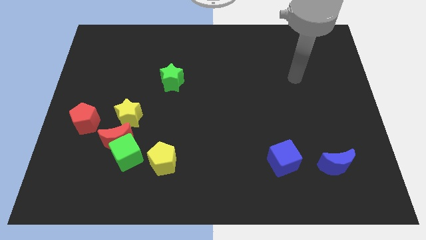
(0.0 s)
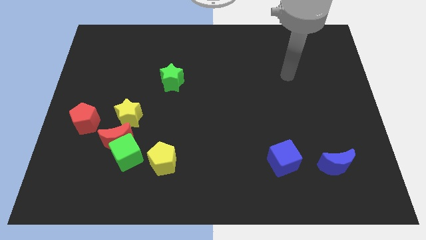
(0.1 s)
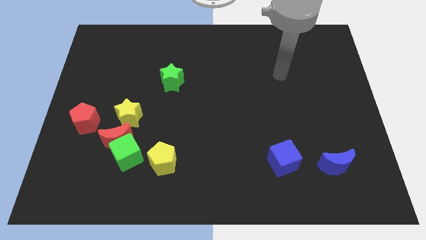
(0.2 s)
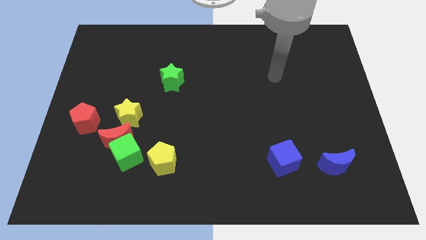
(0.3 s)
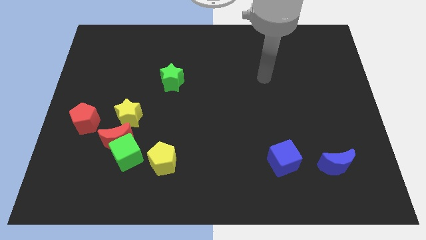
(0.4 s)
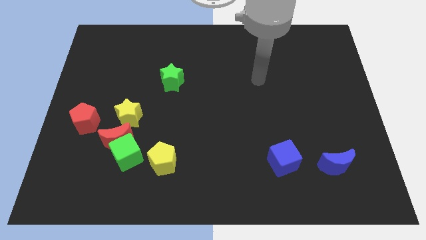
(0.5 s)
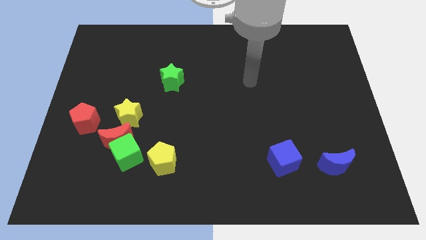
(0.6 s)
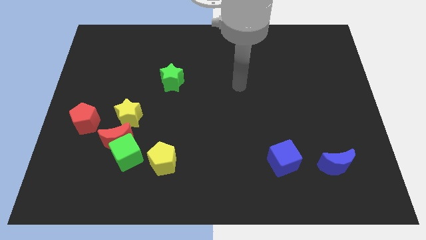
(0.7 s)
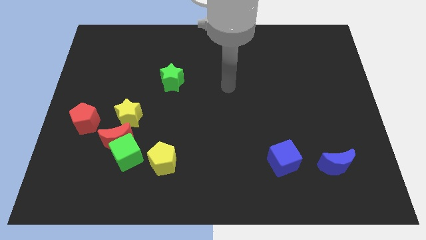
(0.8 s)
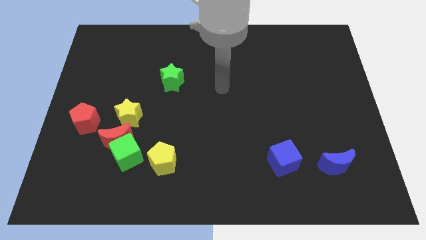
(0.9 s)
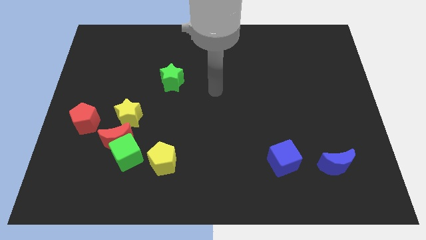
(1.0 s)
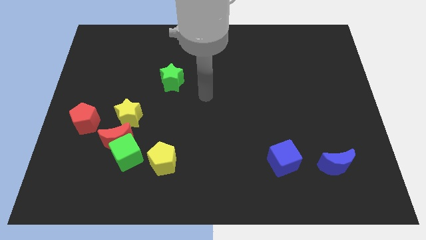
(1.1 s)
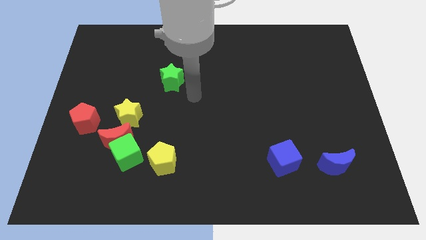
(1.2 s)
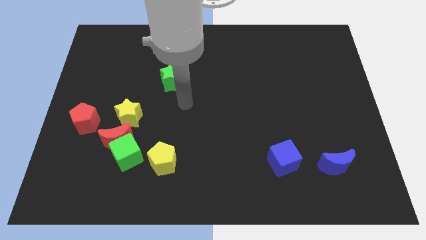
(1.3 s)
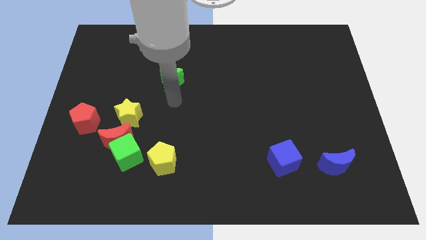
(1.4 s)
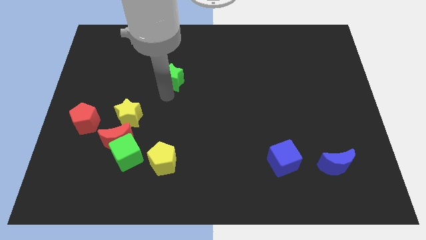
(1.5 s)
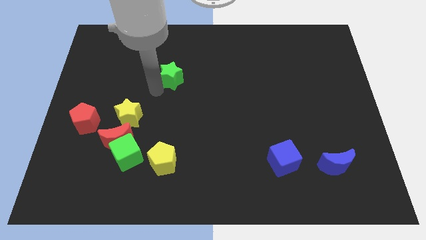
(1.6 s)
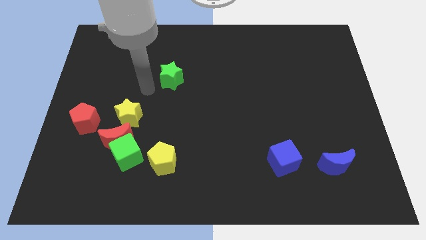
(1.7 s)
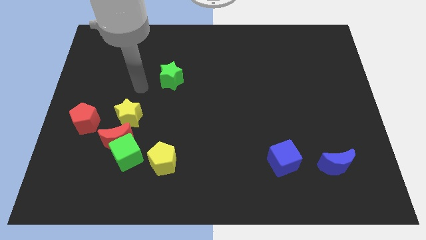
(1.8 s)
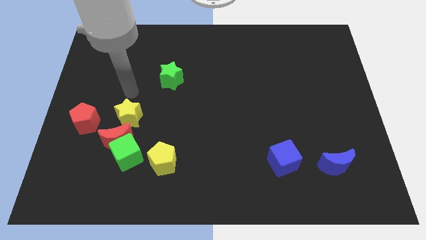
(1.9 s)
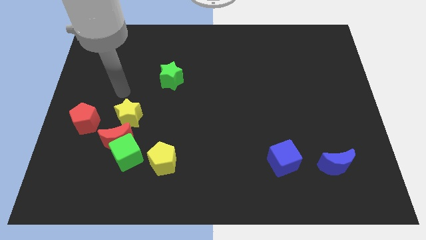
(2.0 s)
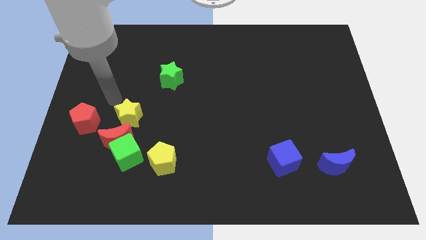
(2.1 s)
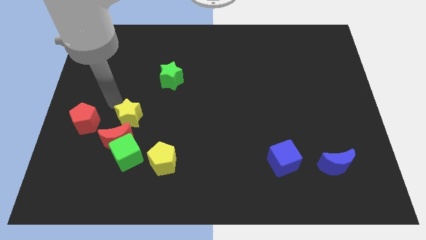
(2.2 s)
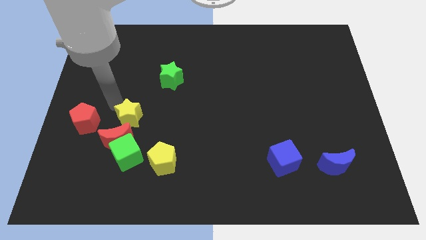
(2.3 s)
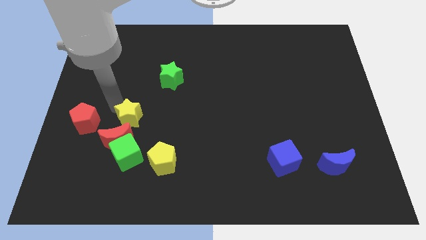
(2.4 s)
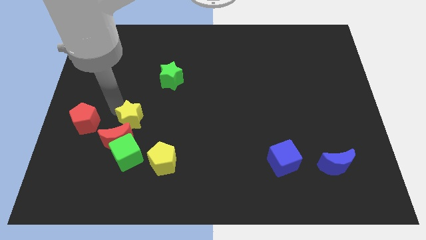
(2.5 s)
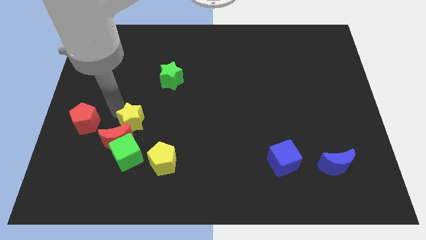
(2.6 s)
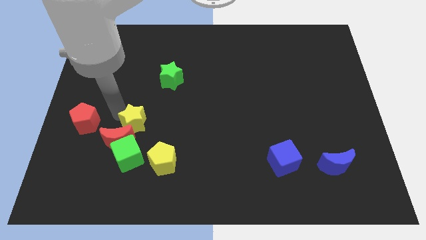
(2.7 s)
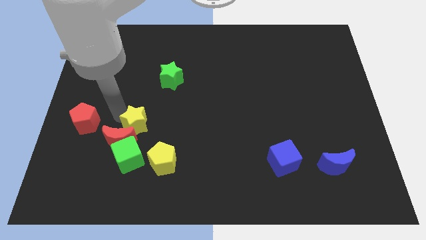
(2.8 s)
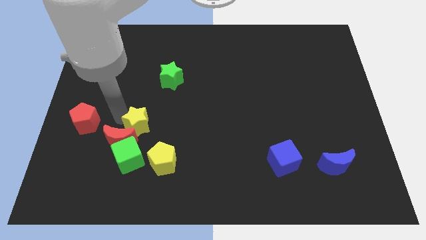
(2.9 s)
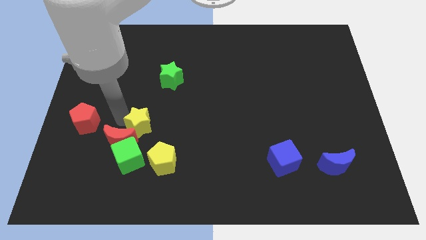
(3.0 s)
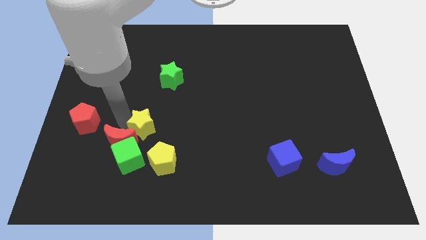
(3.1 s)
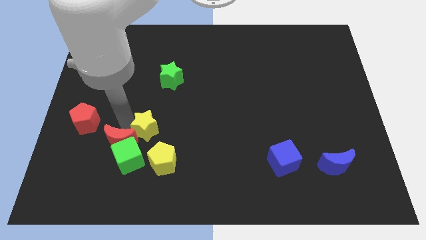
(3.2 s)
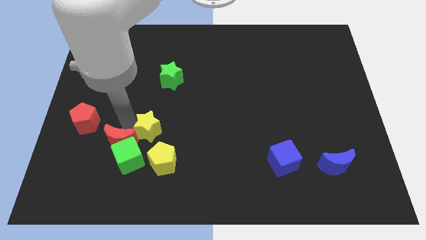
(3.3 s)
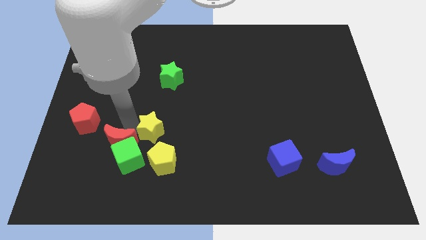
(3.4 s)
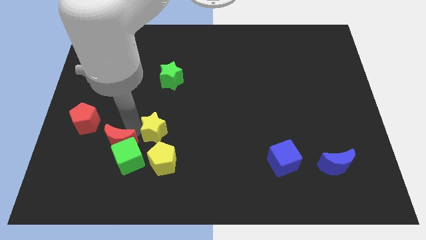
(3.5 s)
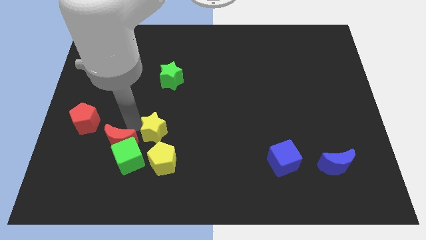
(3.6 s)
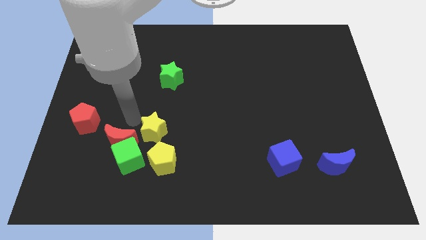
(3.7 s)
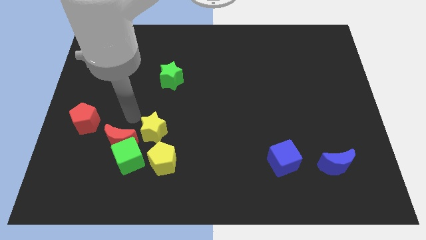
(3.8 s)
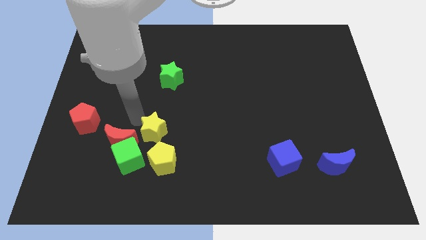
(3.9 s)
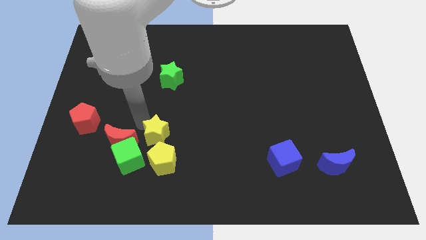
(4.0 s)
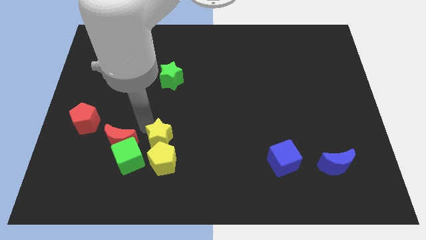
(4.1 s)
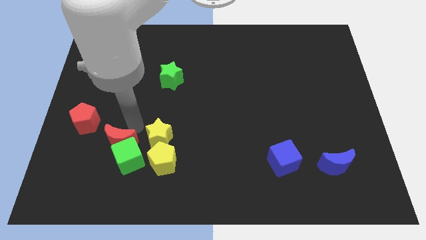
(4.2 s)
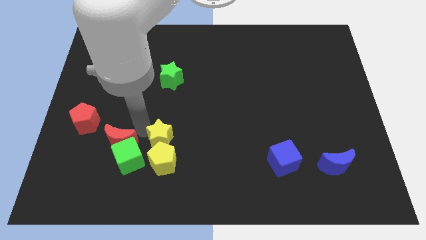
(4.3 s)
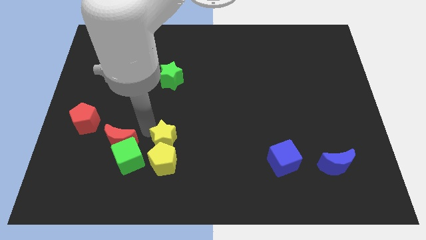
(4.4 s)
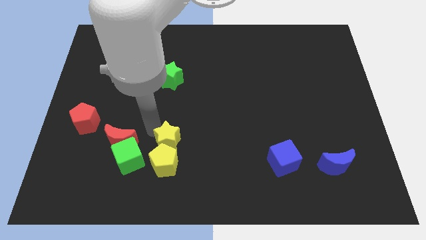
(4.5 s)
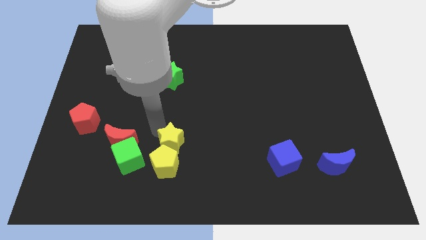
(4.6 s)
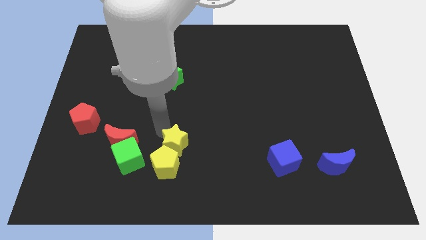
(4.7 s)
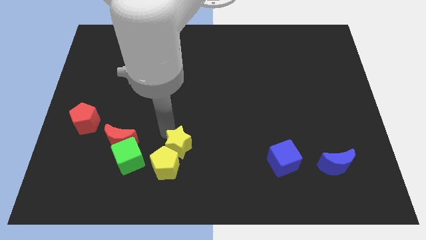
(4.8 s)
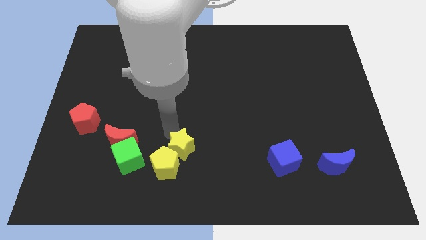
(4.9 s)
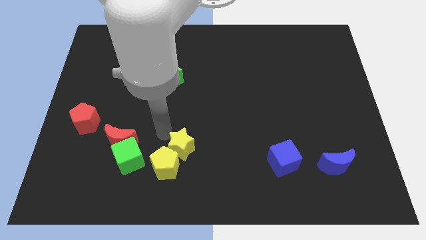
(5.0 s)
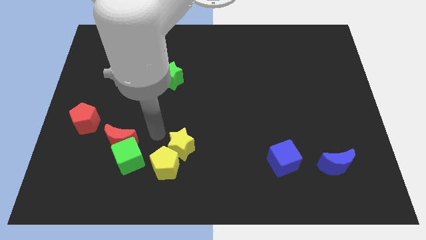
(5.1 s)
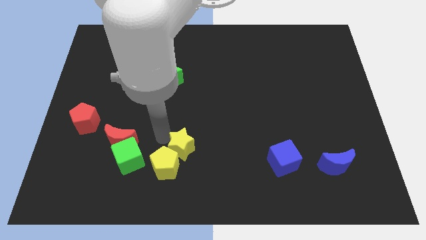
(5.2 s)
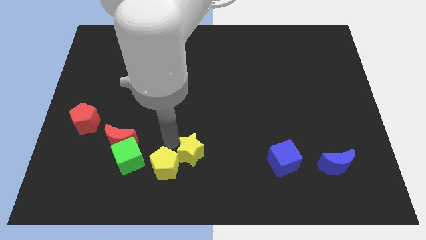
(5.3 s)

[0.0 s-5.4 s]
slide the yellow star right of the yellow pentagon

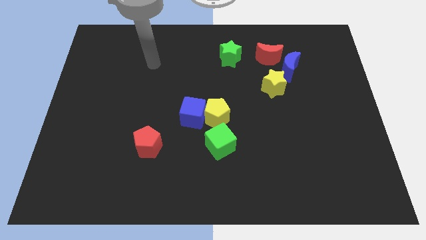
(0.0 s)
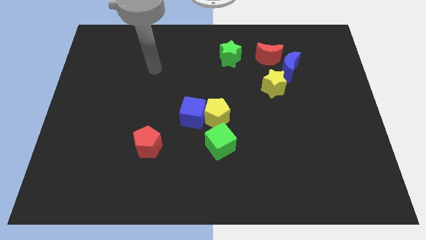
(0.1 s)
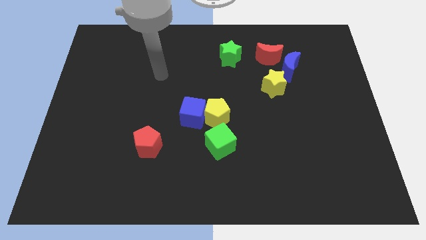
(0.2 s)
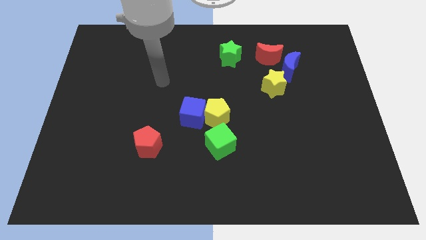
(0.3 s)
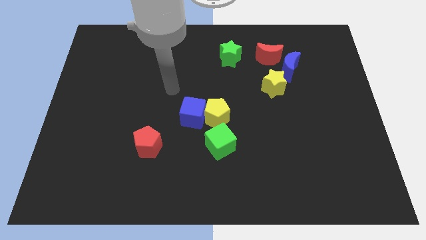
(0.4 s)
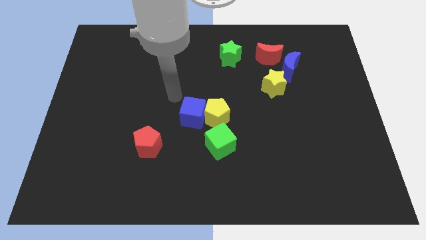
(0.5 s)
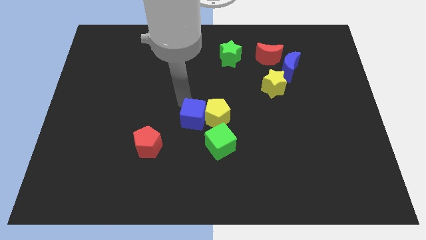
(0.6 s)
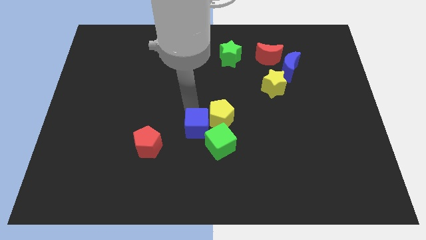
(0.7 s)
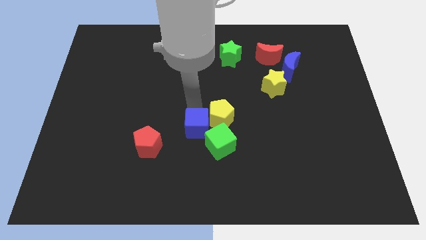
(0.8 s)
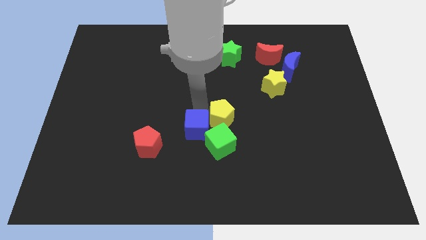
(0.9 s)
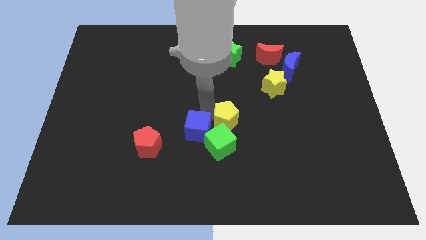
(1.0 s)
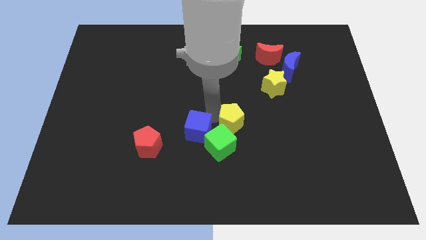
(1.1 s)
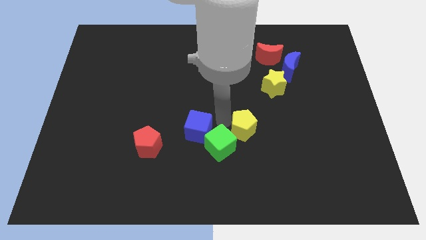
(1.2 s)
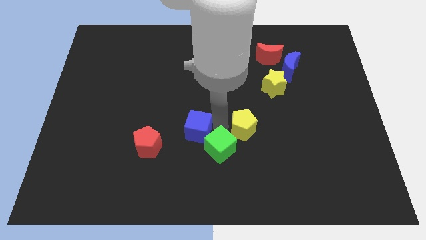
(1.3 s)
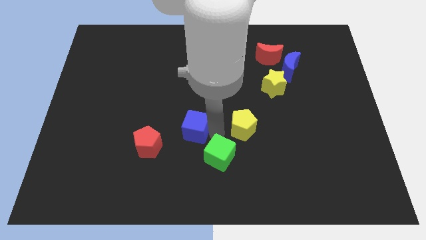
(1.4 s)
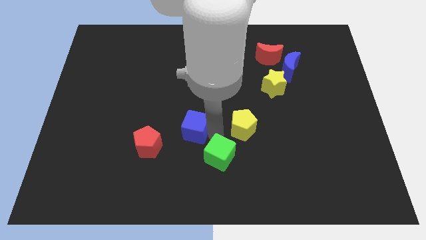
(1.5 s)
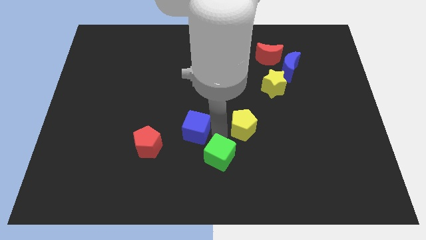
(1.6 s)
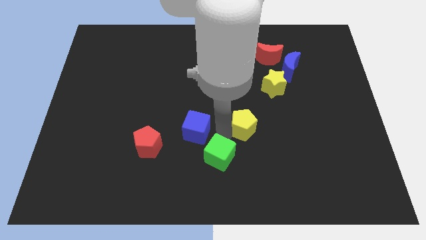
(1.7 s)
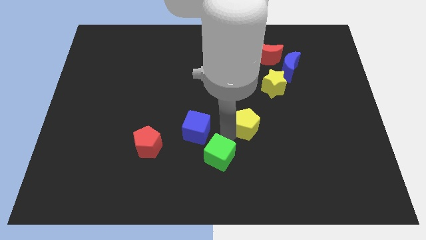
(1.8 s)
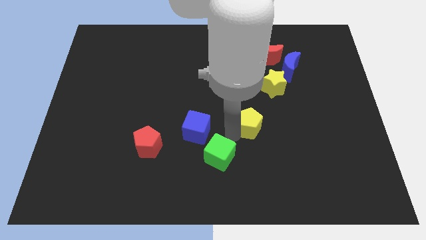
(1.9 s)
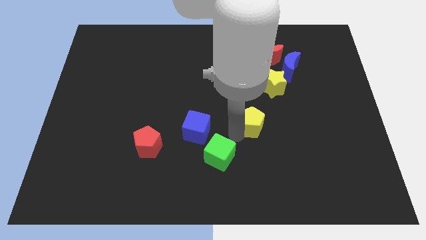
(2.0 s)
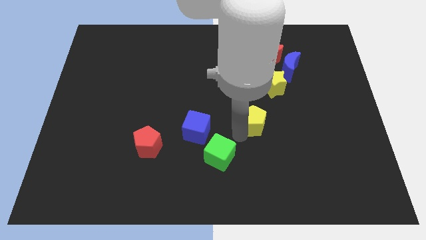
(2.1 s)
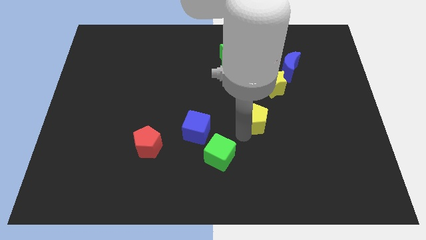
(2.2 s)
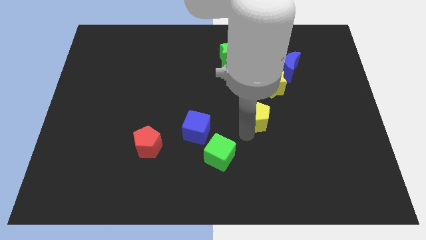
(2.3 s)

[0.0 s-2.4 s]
slide the yellow pentagon to the bottom of the yellow star
